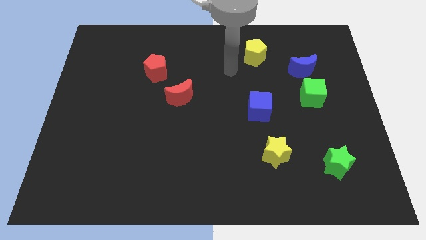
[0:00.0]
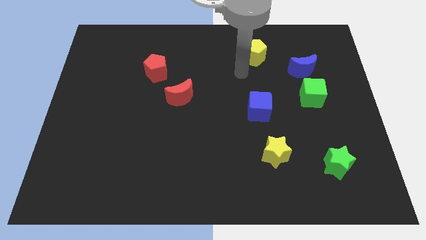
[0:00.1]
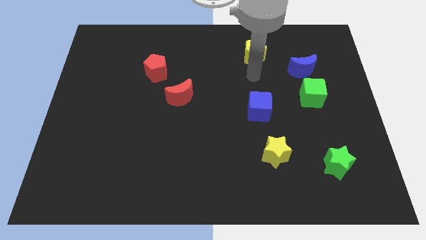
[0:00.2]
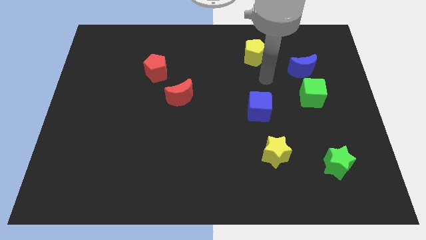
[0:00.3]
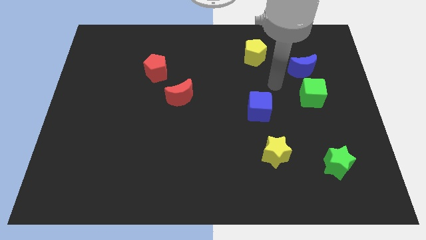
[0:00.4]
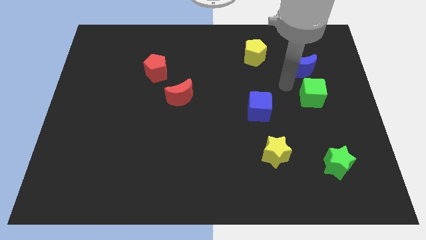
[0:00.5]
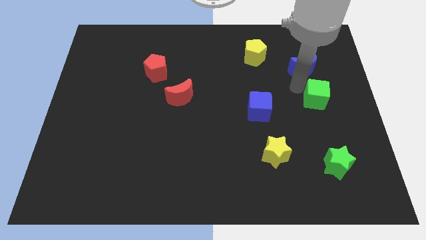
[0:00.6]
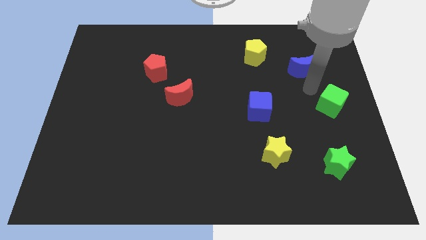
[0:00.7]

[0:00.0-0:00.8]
pull the blue moon apart from the green cube

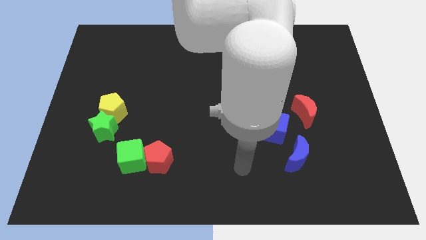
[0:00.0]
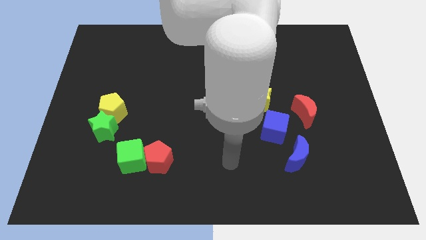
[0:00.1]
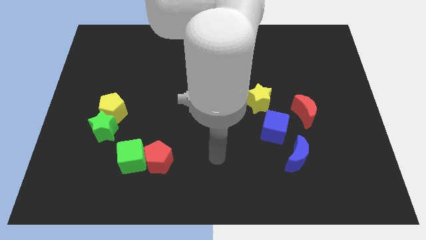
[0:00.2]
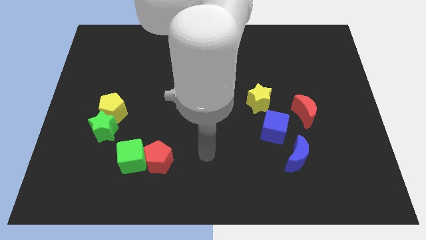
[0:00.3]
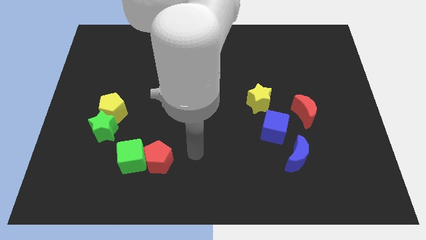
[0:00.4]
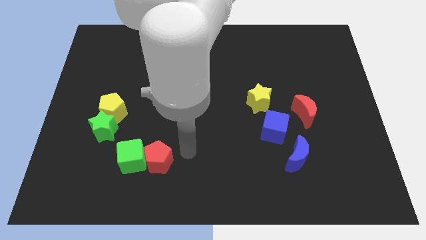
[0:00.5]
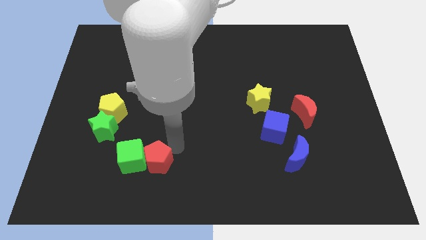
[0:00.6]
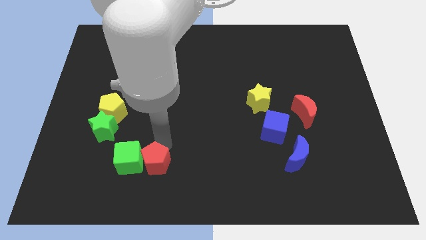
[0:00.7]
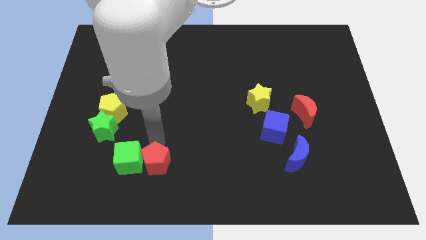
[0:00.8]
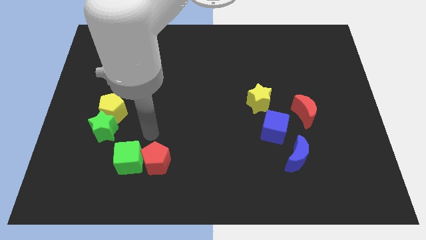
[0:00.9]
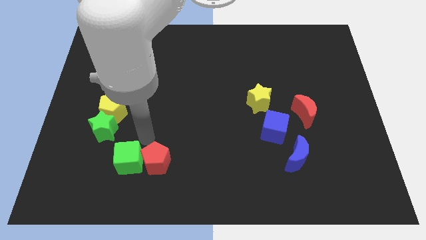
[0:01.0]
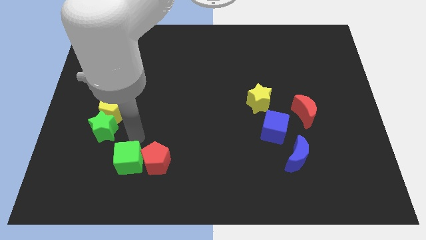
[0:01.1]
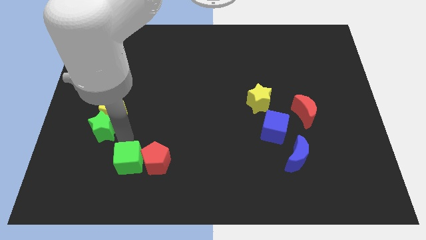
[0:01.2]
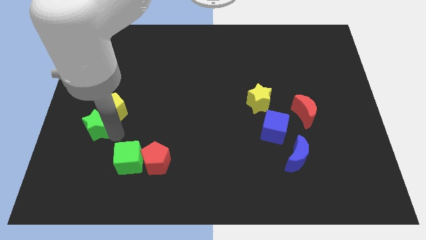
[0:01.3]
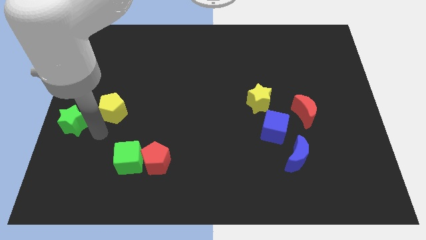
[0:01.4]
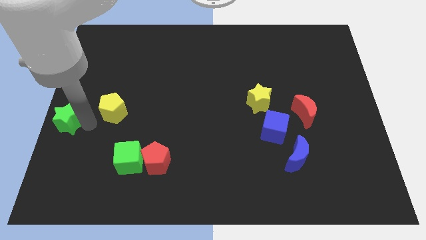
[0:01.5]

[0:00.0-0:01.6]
separate the yellow pentagon from the green star

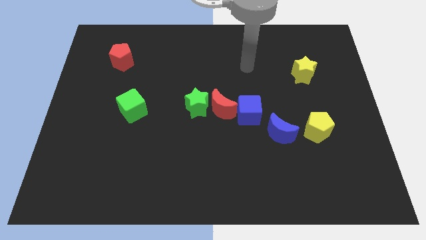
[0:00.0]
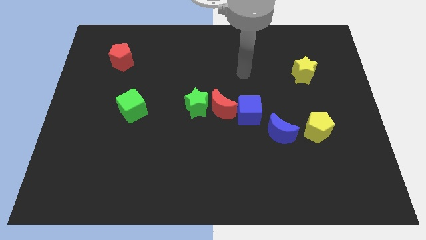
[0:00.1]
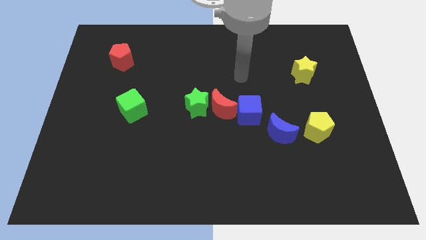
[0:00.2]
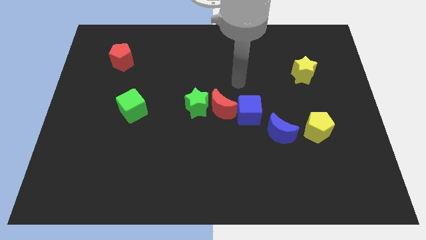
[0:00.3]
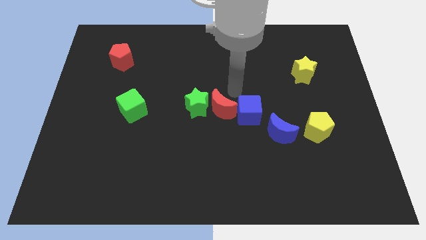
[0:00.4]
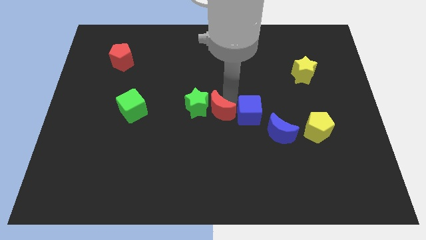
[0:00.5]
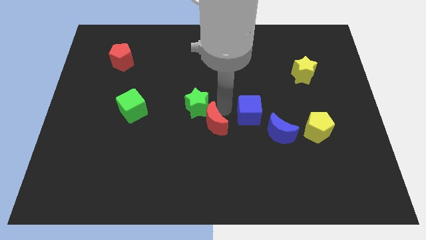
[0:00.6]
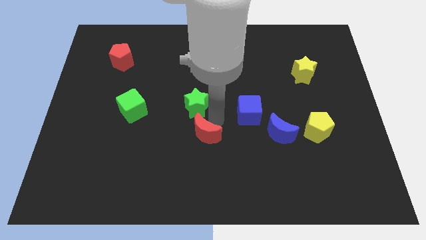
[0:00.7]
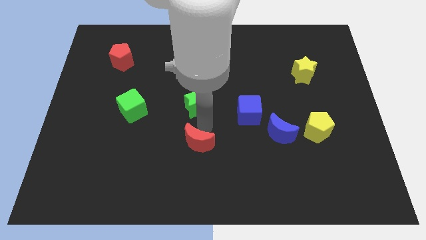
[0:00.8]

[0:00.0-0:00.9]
pull the green star apart from the red moon

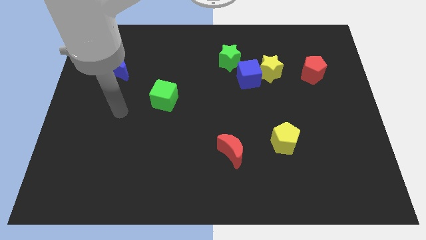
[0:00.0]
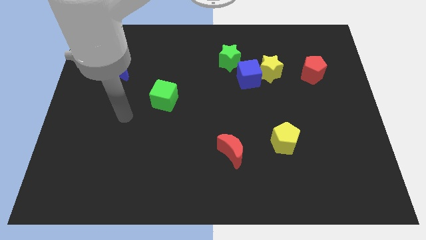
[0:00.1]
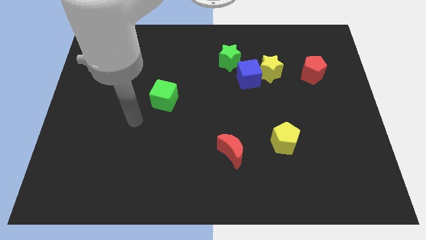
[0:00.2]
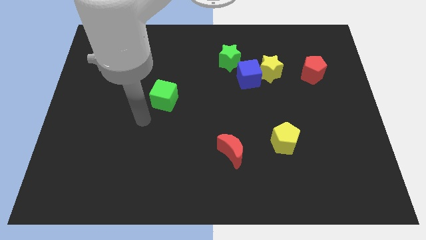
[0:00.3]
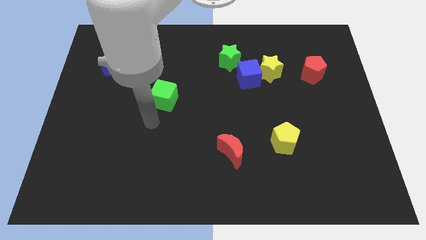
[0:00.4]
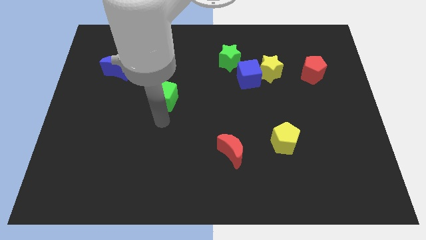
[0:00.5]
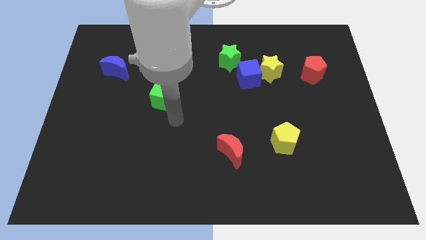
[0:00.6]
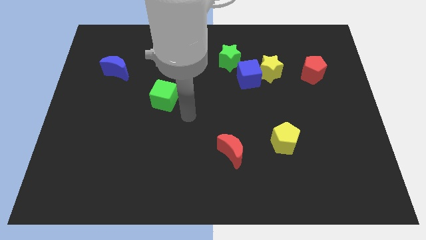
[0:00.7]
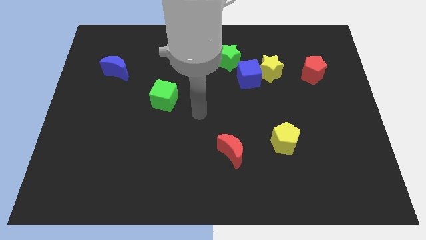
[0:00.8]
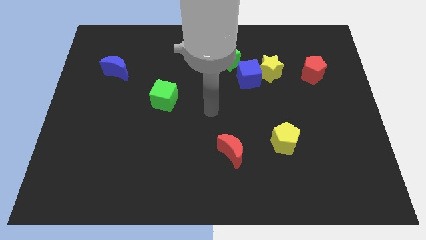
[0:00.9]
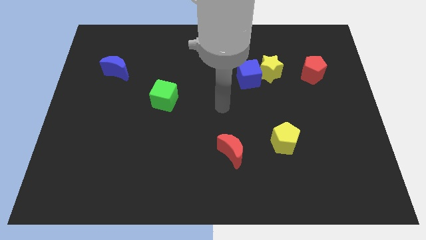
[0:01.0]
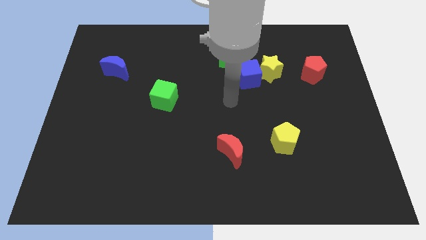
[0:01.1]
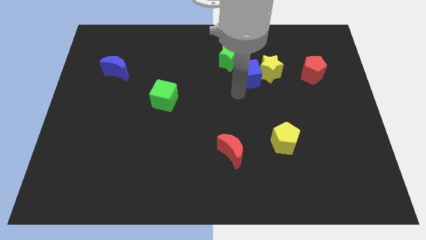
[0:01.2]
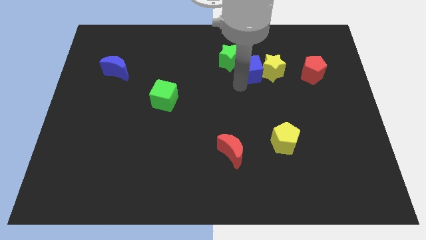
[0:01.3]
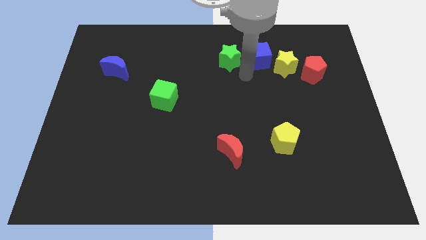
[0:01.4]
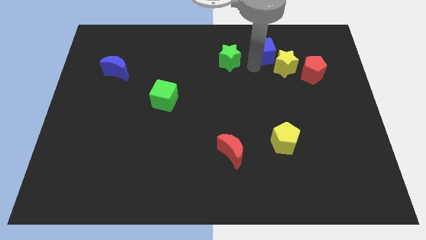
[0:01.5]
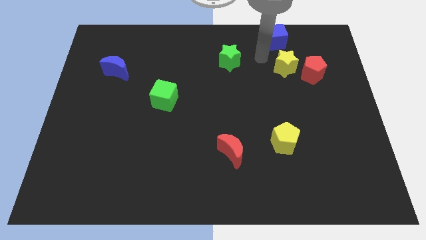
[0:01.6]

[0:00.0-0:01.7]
separate the yellow star from the blue cube

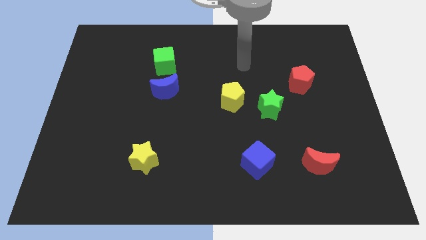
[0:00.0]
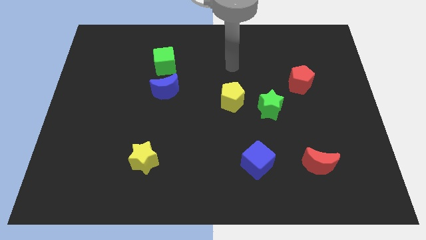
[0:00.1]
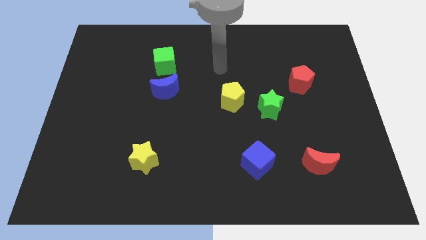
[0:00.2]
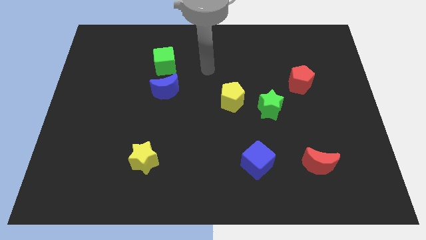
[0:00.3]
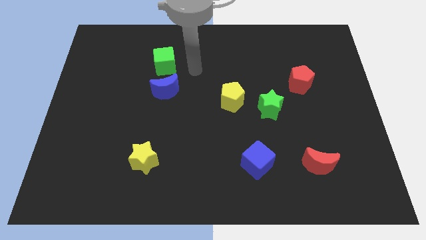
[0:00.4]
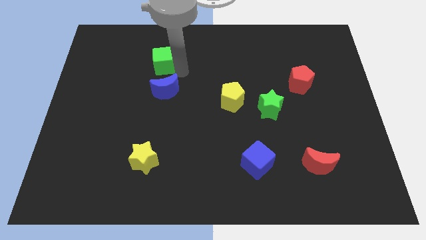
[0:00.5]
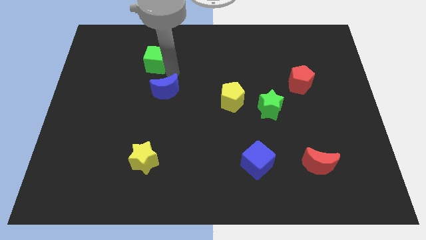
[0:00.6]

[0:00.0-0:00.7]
move the blue moon away from the green cube

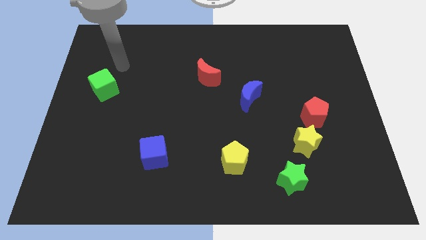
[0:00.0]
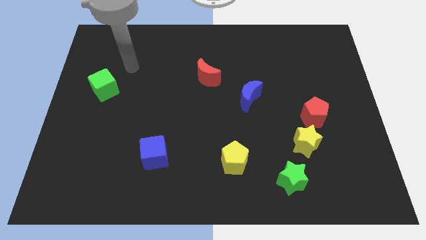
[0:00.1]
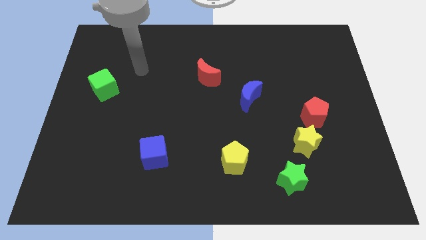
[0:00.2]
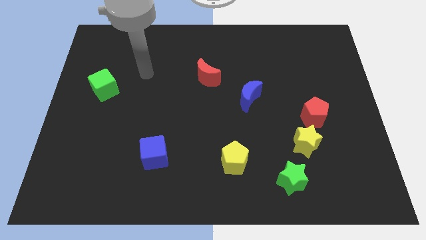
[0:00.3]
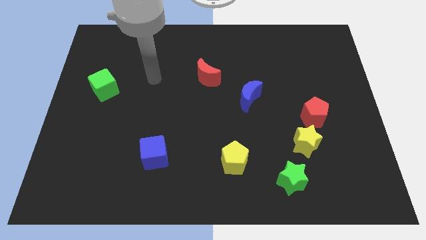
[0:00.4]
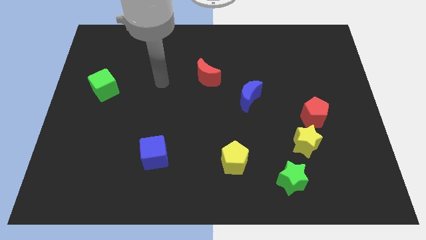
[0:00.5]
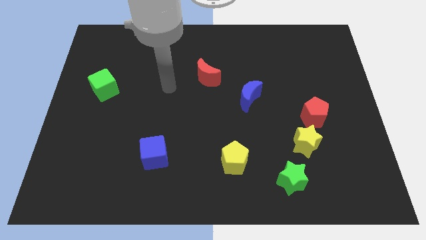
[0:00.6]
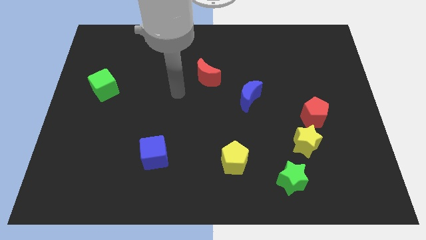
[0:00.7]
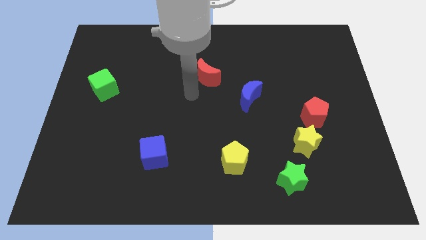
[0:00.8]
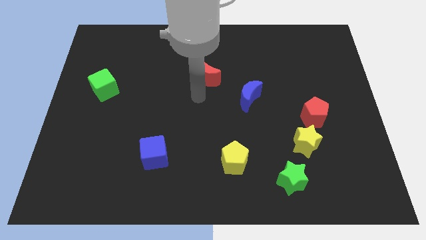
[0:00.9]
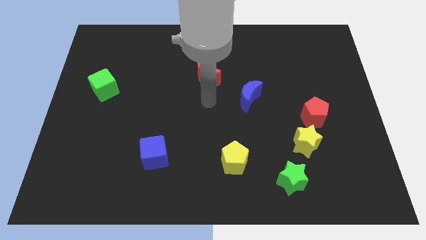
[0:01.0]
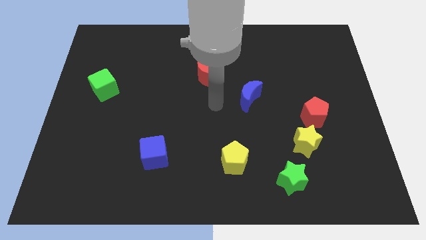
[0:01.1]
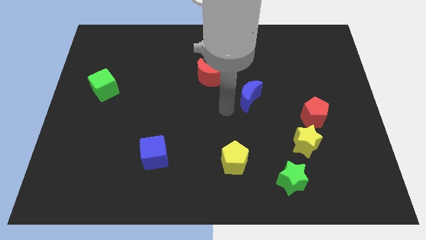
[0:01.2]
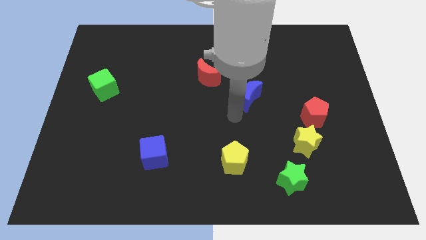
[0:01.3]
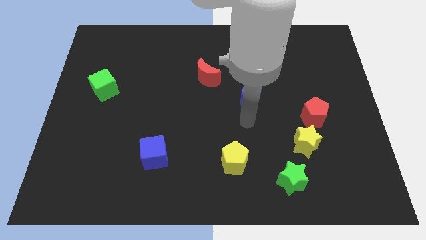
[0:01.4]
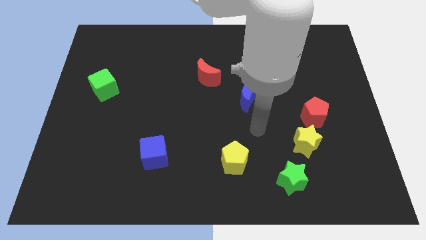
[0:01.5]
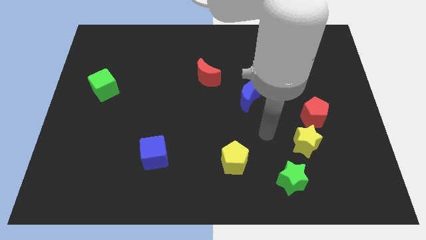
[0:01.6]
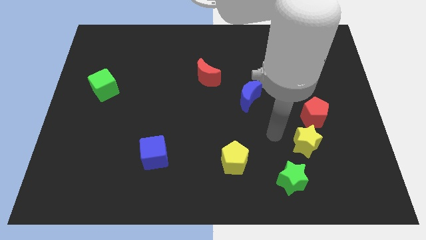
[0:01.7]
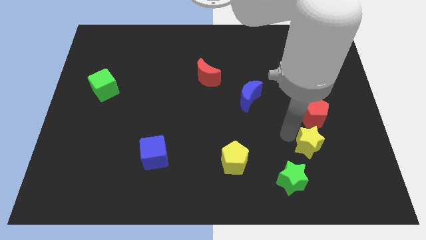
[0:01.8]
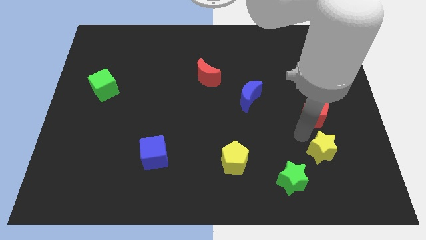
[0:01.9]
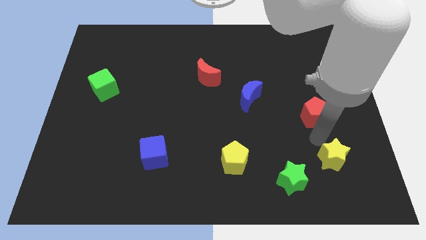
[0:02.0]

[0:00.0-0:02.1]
pull the red pentagon apart from the yellow star

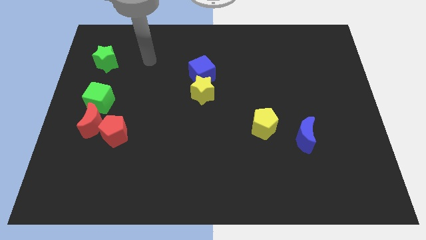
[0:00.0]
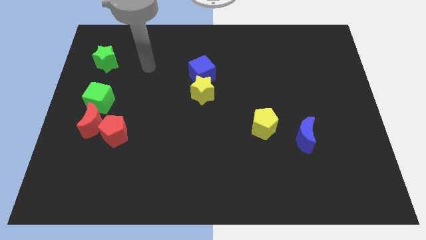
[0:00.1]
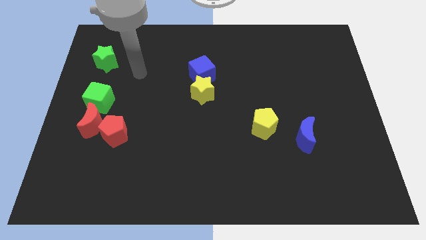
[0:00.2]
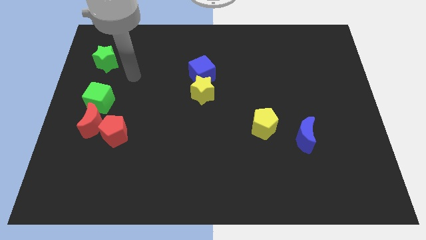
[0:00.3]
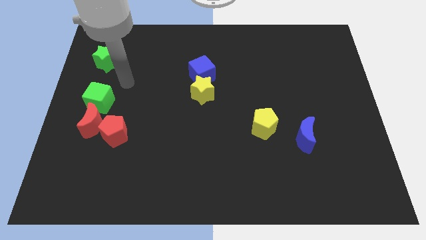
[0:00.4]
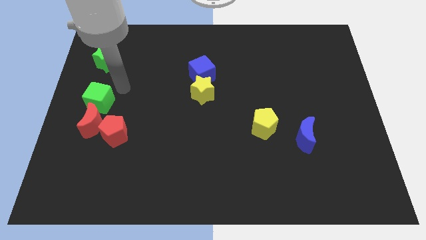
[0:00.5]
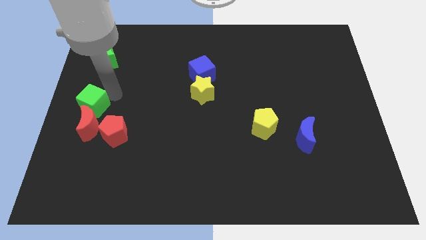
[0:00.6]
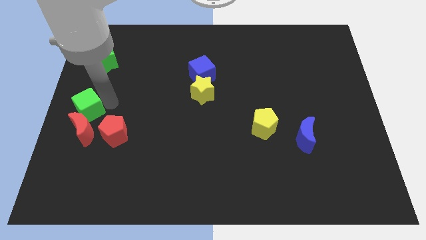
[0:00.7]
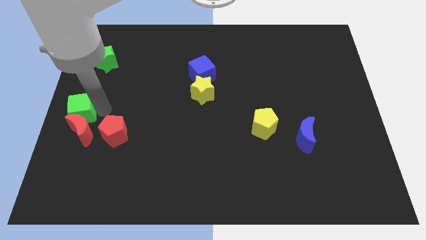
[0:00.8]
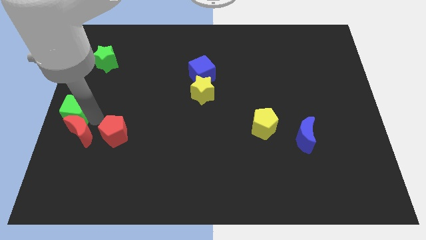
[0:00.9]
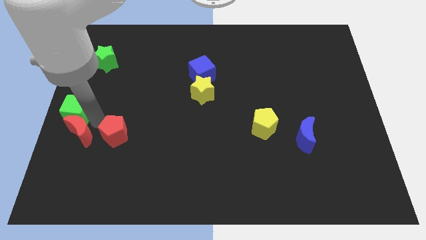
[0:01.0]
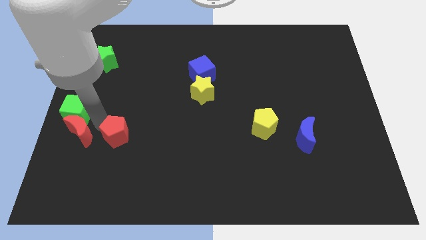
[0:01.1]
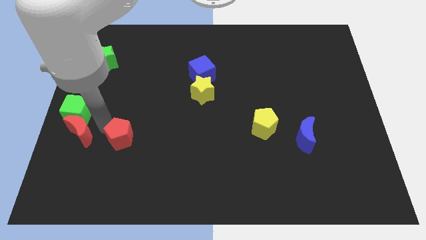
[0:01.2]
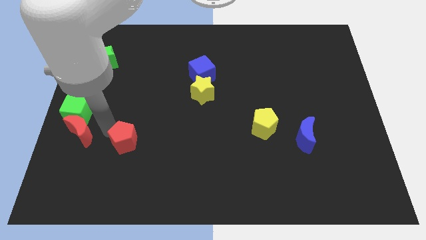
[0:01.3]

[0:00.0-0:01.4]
pull the red pentagon apart from the red moon

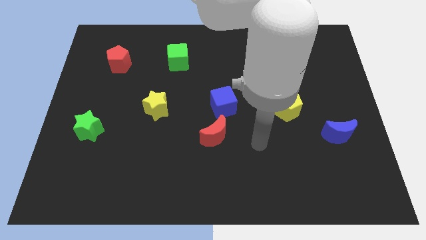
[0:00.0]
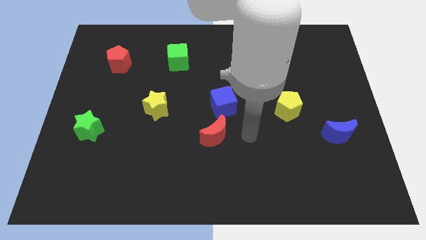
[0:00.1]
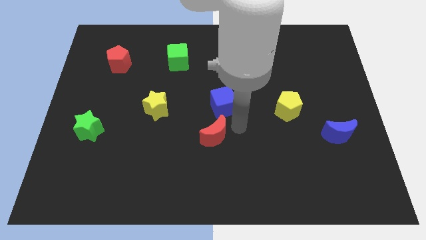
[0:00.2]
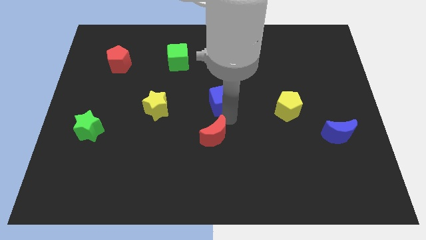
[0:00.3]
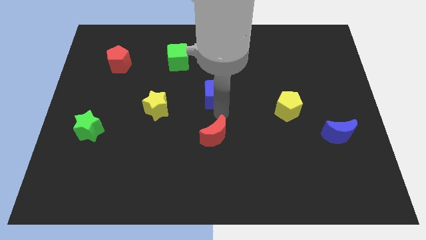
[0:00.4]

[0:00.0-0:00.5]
move the red moon away from the blue cube
